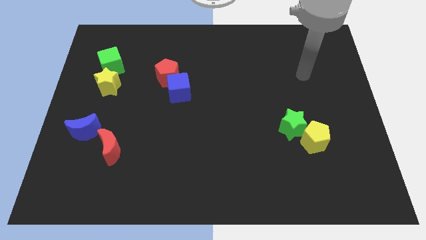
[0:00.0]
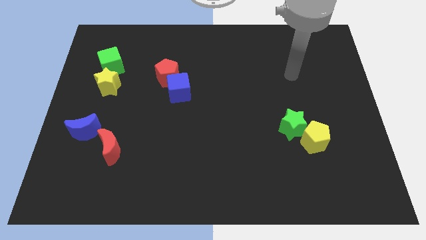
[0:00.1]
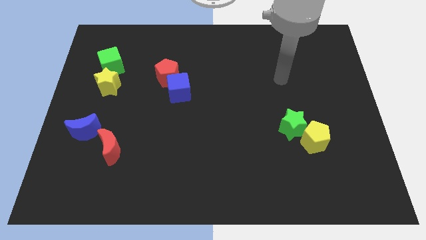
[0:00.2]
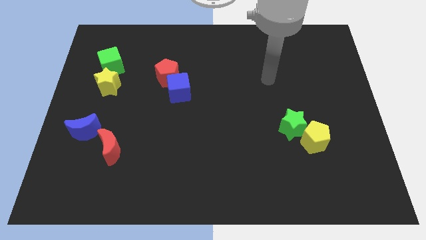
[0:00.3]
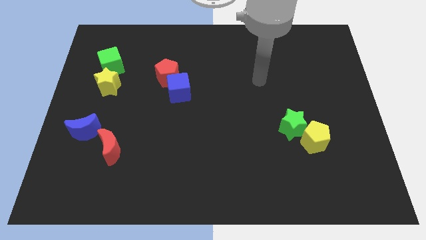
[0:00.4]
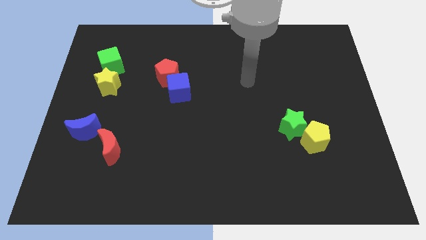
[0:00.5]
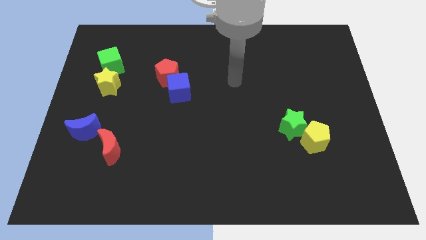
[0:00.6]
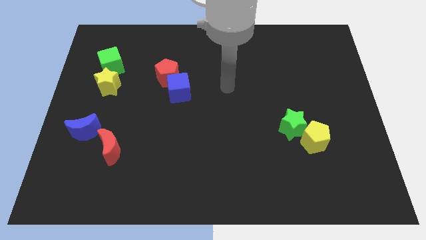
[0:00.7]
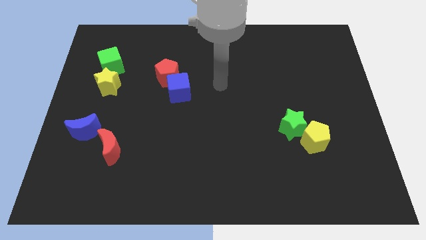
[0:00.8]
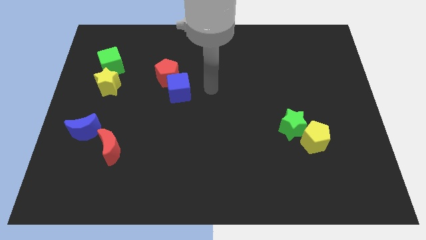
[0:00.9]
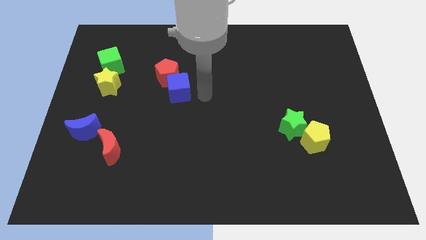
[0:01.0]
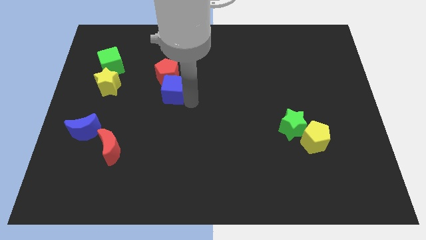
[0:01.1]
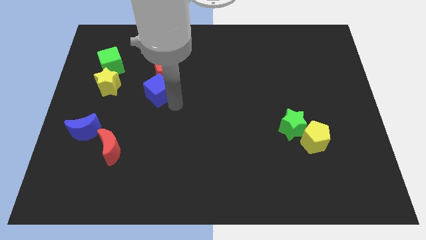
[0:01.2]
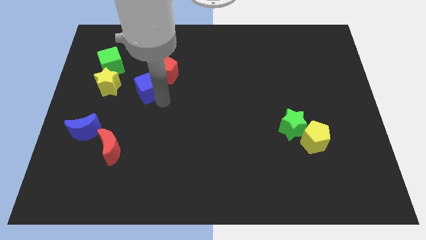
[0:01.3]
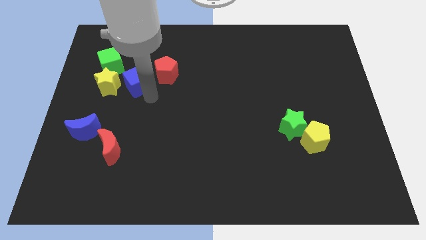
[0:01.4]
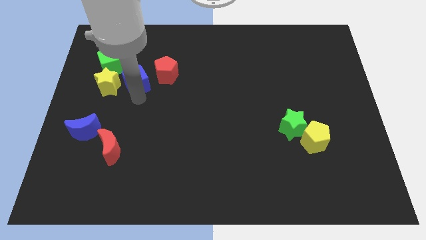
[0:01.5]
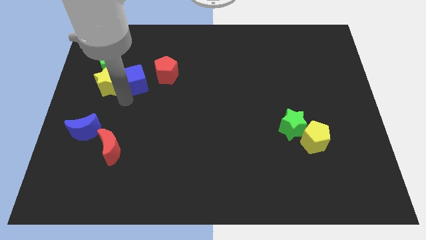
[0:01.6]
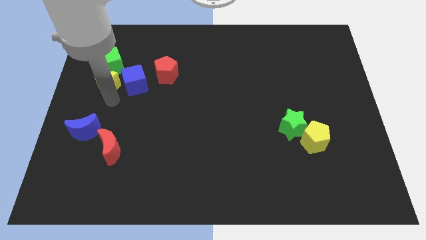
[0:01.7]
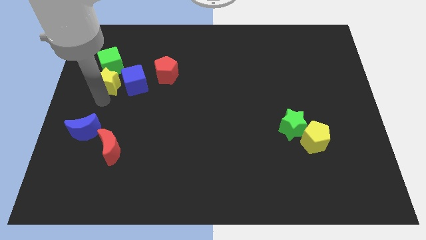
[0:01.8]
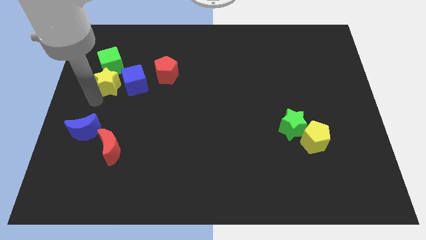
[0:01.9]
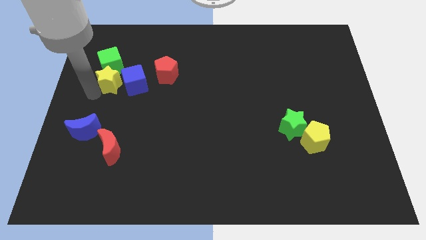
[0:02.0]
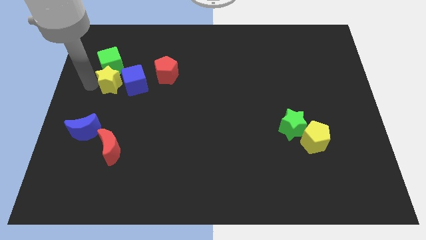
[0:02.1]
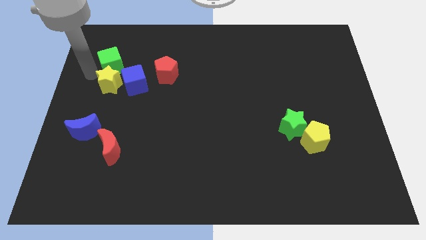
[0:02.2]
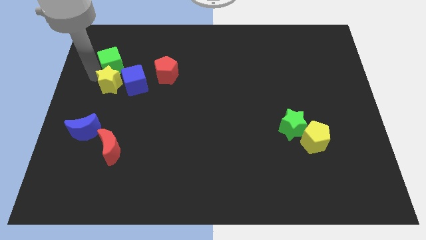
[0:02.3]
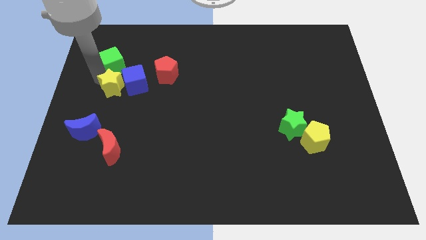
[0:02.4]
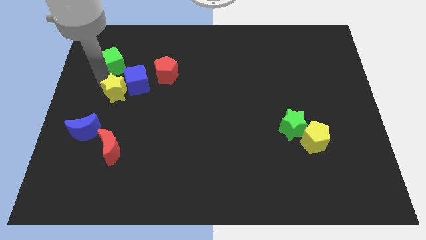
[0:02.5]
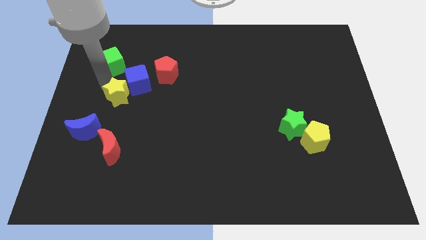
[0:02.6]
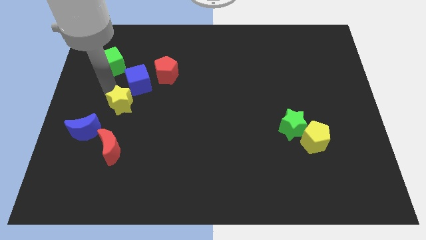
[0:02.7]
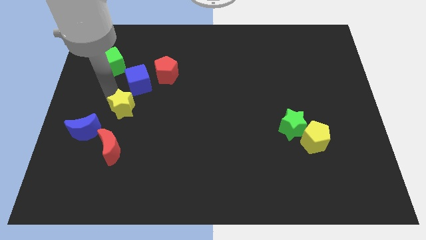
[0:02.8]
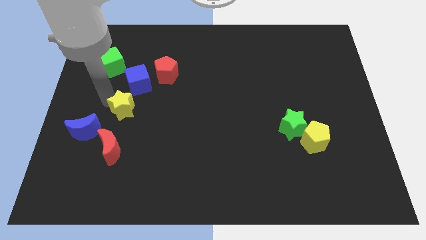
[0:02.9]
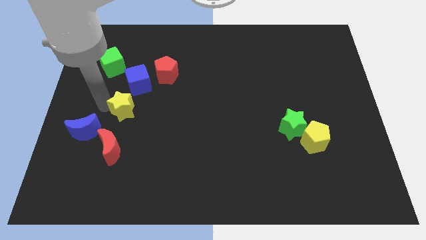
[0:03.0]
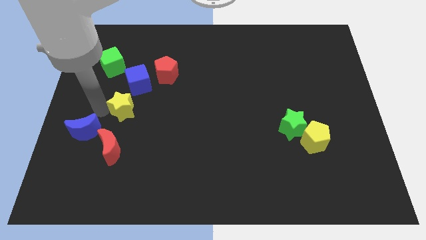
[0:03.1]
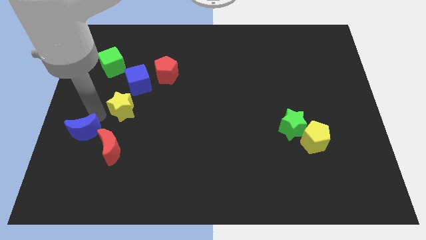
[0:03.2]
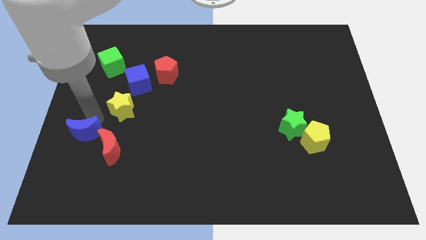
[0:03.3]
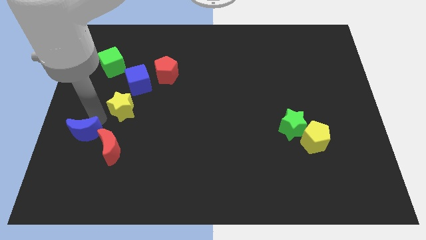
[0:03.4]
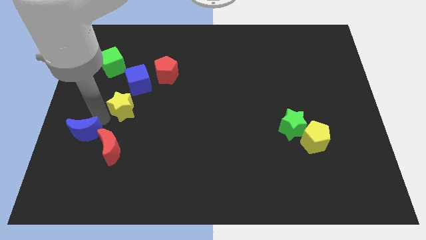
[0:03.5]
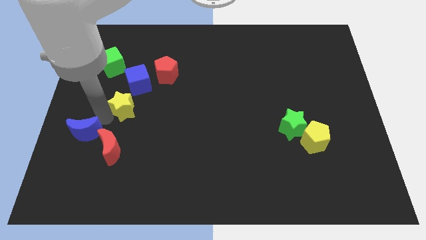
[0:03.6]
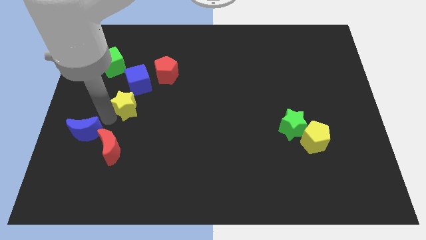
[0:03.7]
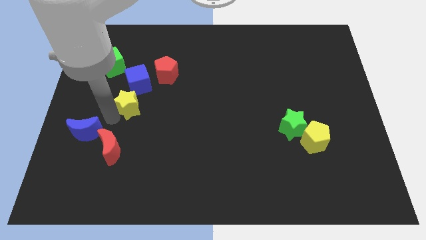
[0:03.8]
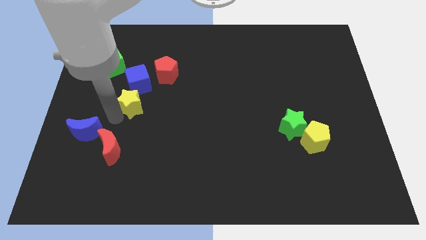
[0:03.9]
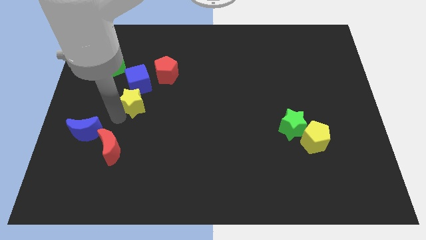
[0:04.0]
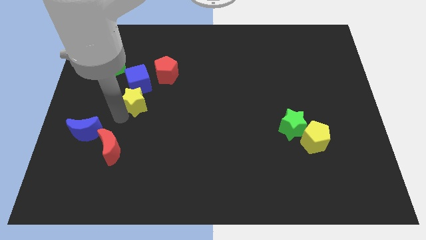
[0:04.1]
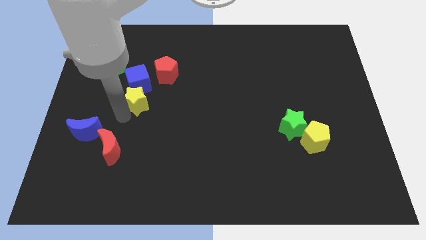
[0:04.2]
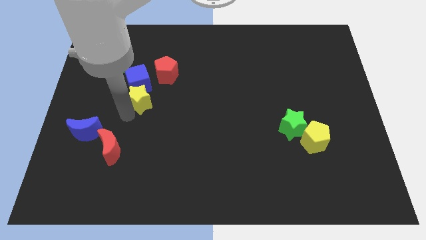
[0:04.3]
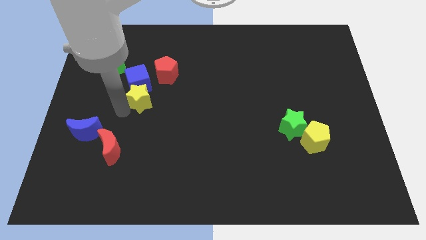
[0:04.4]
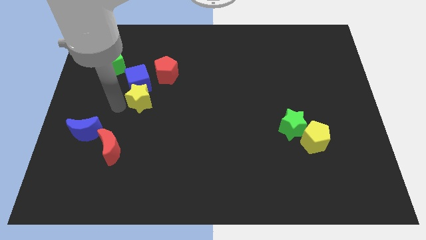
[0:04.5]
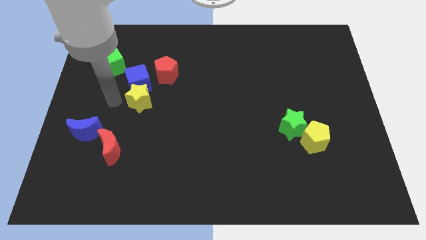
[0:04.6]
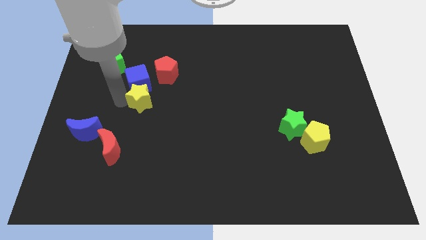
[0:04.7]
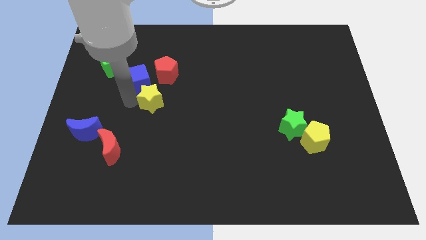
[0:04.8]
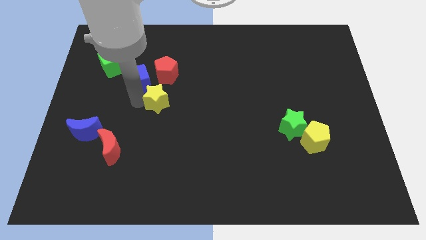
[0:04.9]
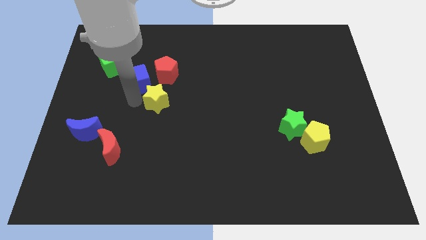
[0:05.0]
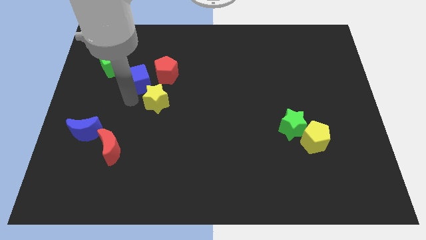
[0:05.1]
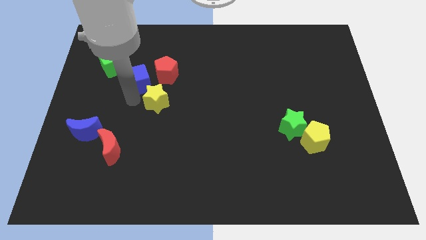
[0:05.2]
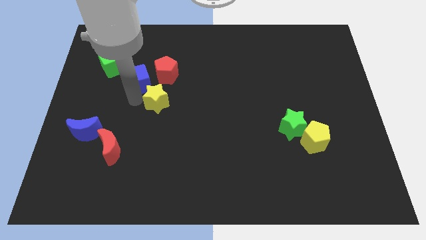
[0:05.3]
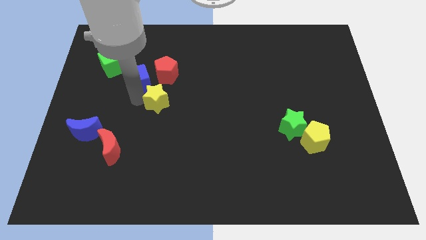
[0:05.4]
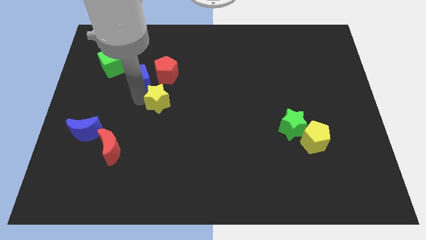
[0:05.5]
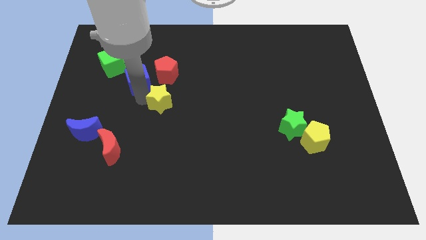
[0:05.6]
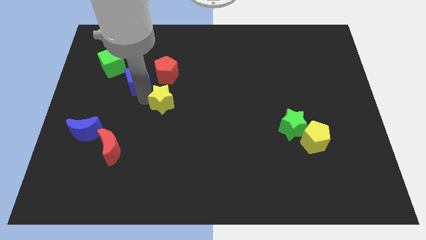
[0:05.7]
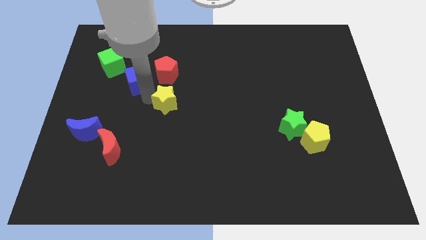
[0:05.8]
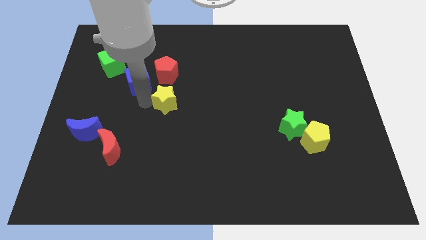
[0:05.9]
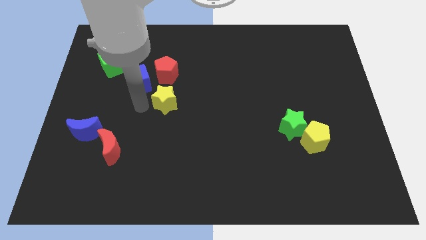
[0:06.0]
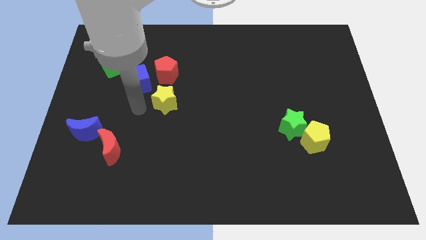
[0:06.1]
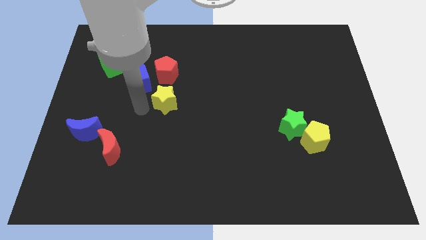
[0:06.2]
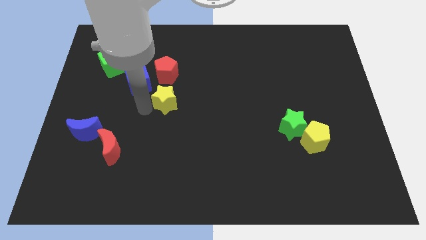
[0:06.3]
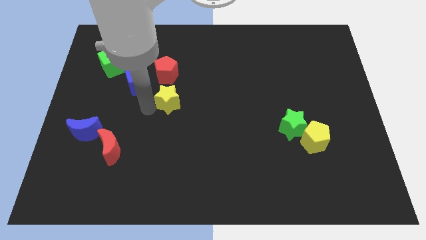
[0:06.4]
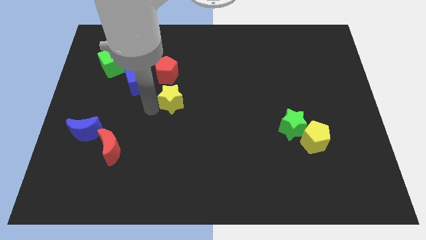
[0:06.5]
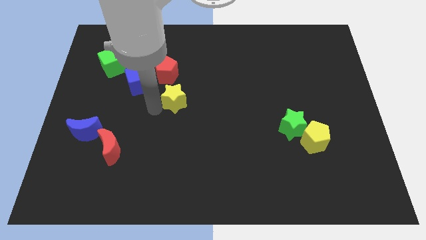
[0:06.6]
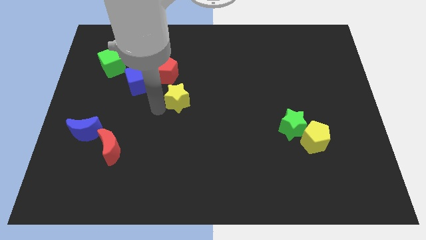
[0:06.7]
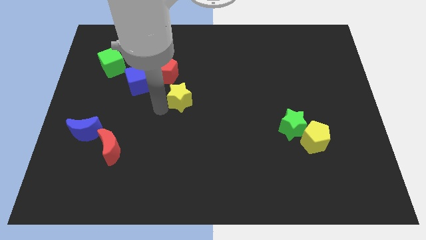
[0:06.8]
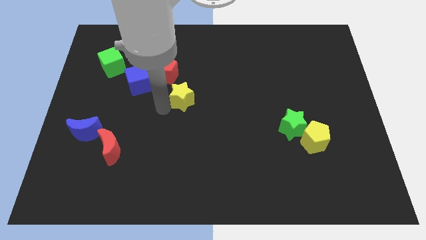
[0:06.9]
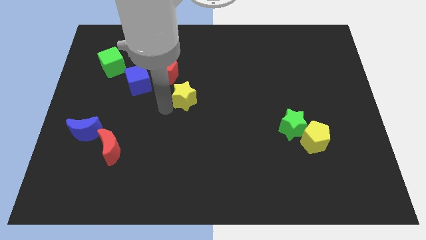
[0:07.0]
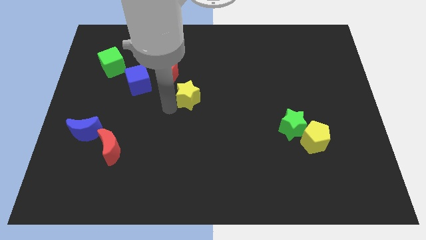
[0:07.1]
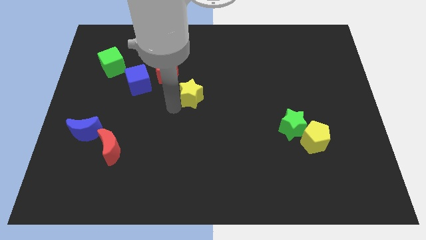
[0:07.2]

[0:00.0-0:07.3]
move the yellow star right

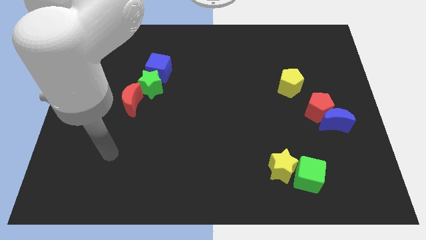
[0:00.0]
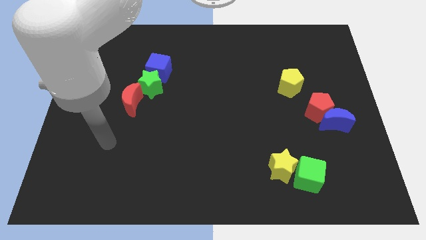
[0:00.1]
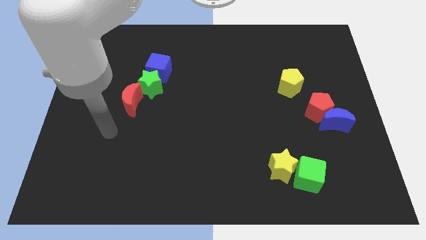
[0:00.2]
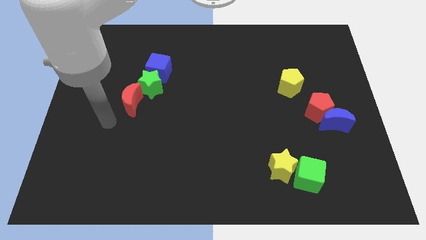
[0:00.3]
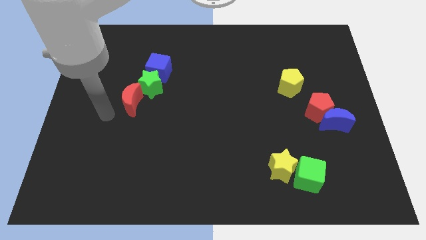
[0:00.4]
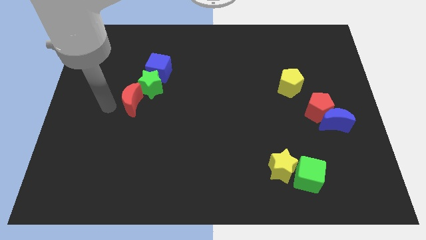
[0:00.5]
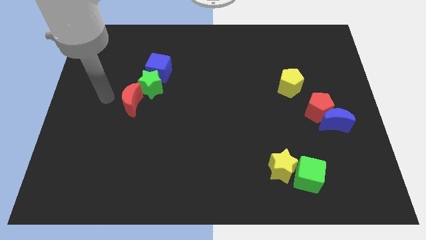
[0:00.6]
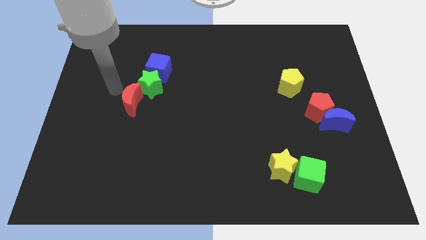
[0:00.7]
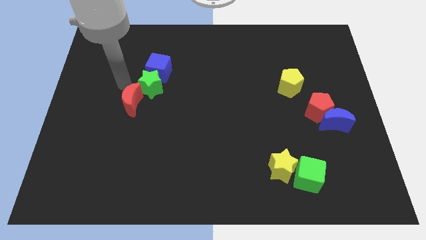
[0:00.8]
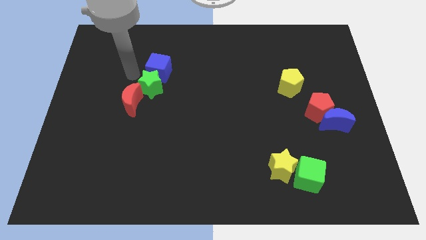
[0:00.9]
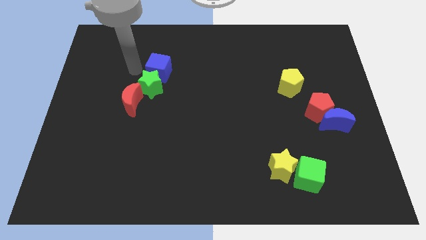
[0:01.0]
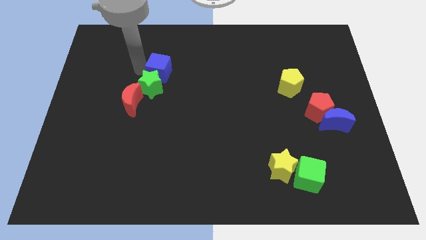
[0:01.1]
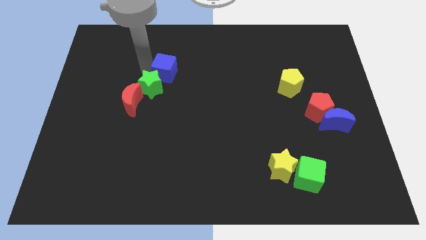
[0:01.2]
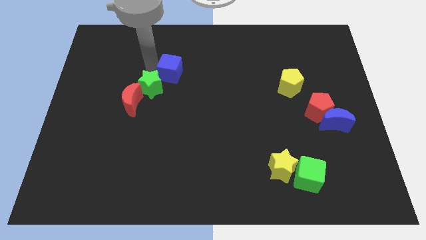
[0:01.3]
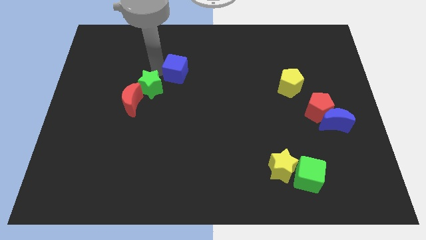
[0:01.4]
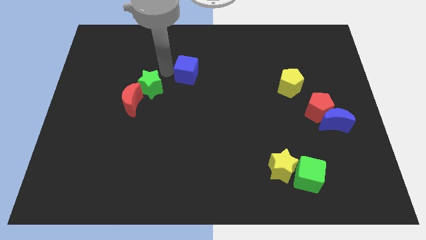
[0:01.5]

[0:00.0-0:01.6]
slide the blue cube somewhat right
